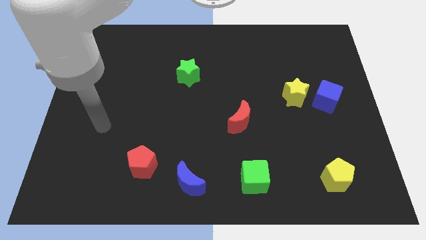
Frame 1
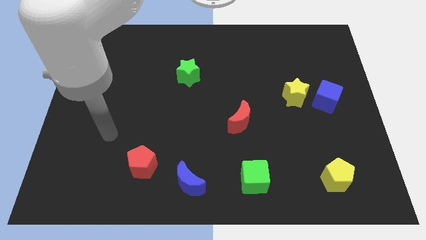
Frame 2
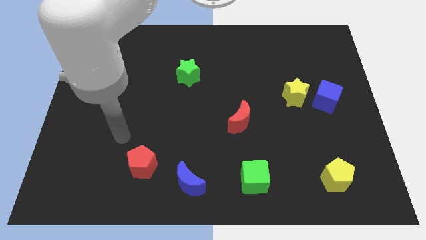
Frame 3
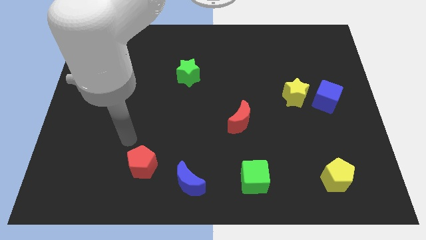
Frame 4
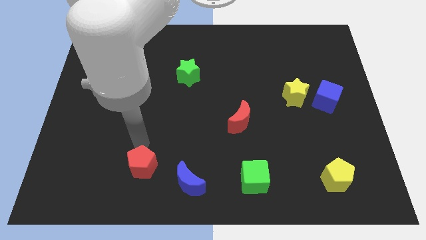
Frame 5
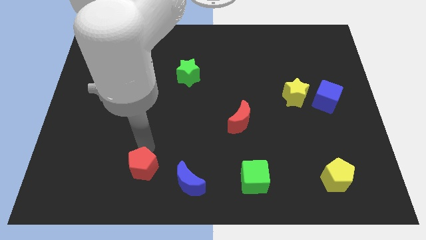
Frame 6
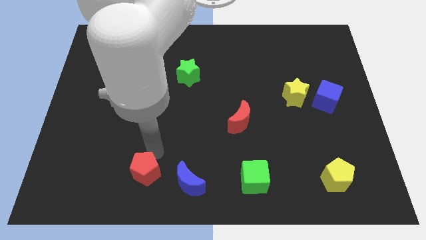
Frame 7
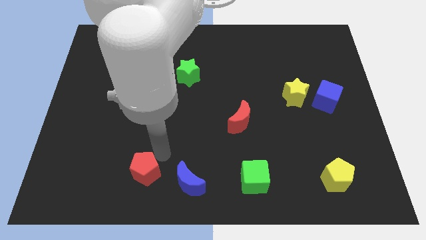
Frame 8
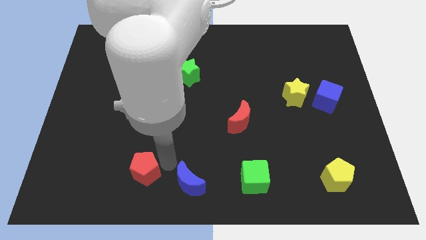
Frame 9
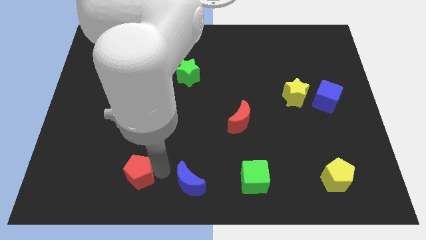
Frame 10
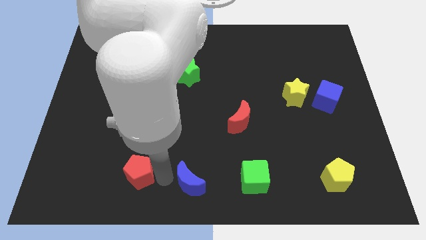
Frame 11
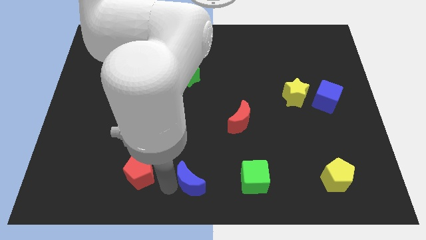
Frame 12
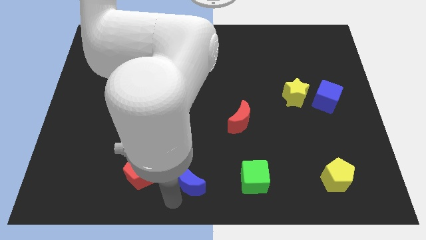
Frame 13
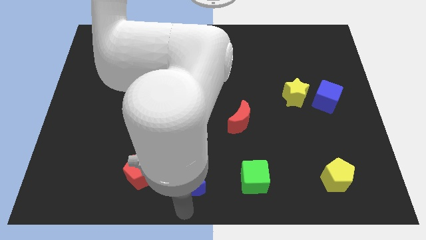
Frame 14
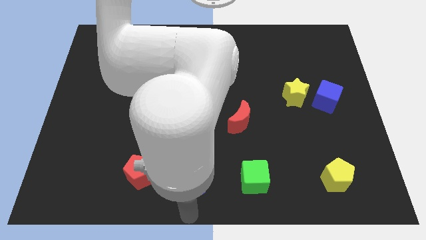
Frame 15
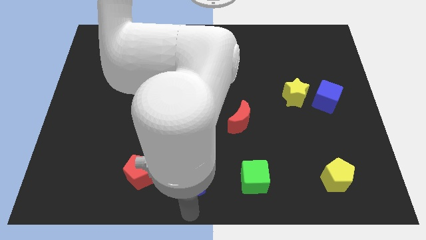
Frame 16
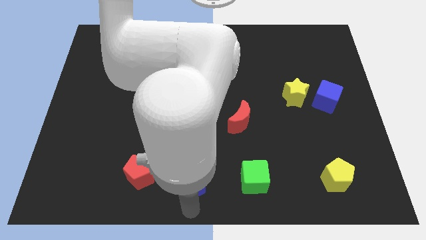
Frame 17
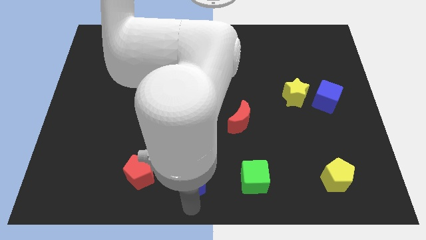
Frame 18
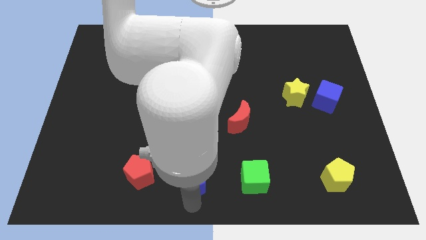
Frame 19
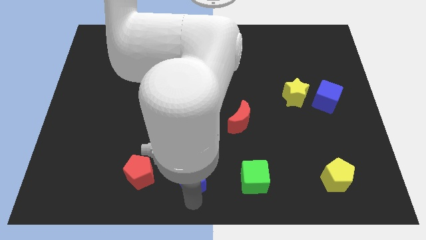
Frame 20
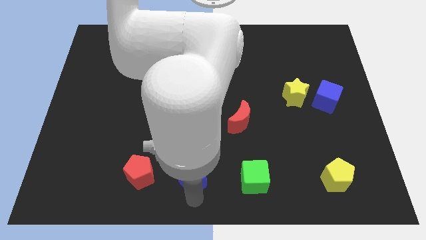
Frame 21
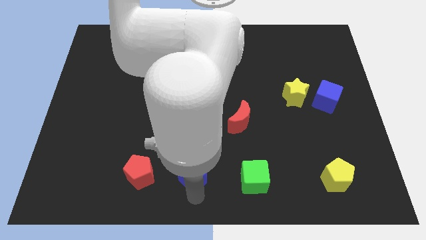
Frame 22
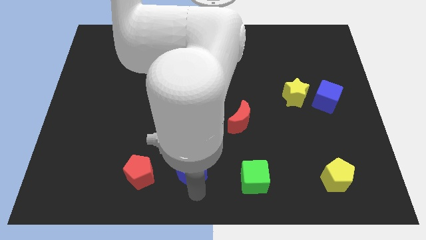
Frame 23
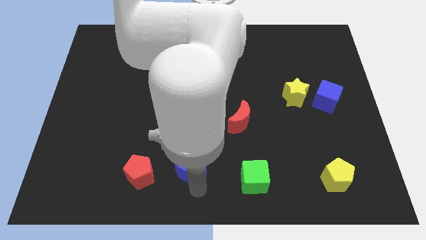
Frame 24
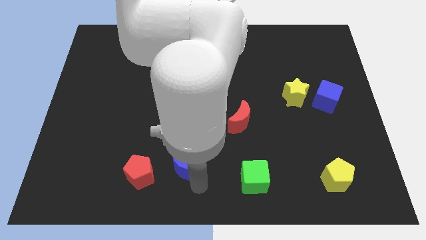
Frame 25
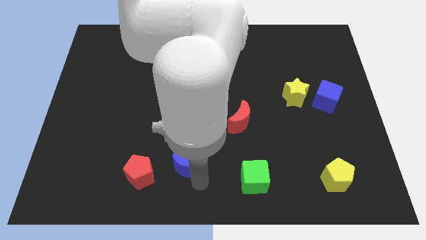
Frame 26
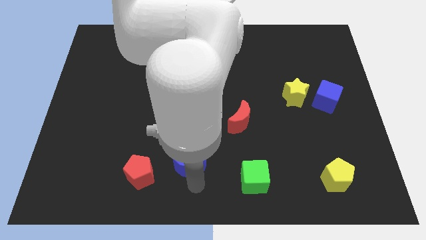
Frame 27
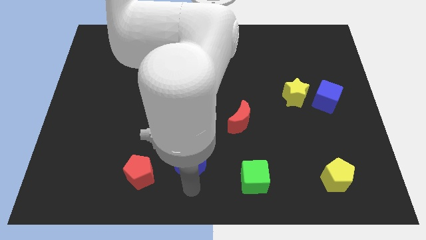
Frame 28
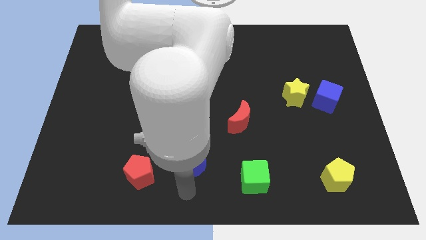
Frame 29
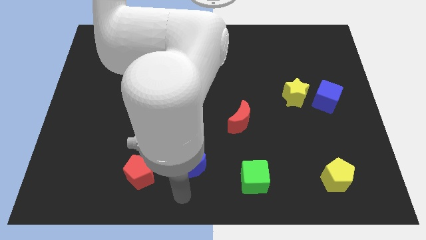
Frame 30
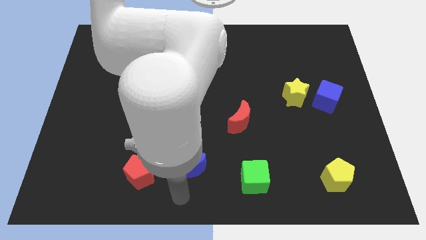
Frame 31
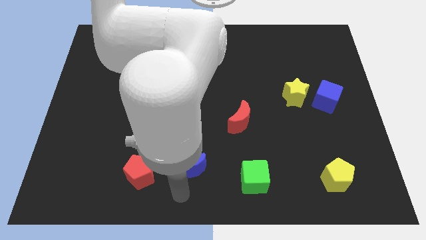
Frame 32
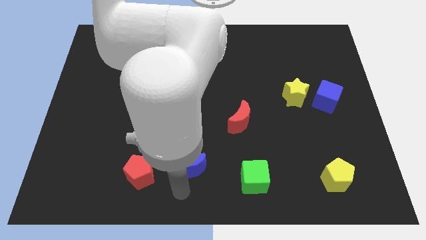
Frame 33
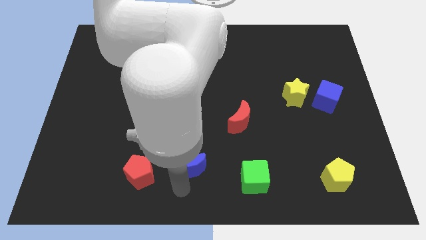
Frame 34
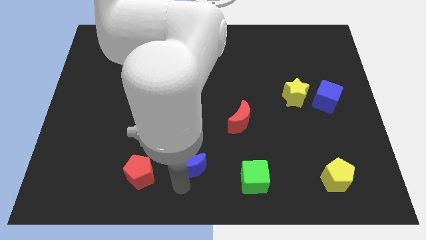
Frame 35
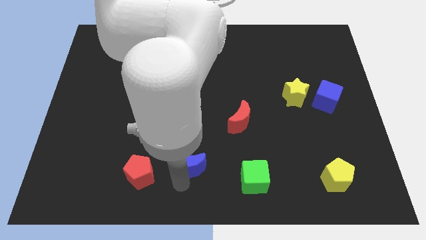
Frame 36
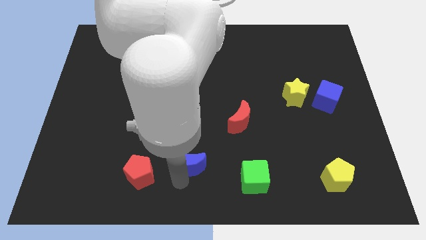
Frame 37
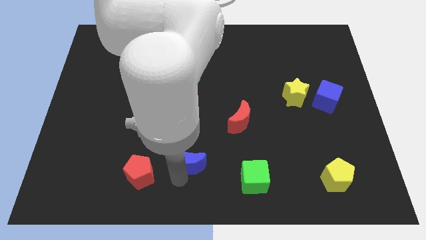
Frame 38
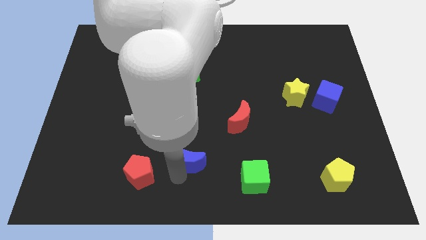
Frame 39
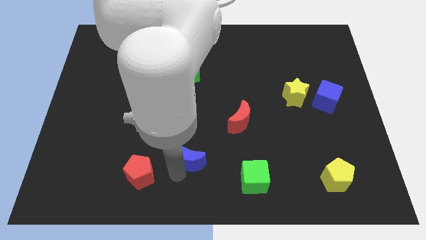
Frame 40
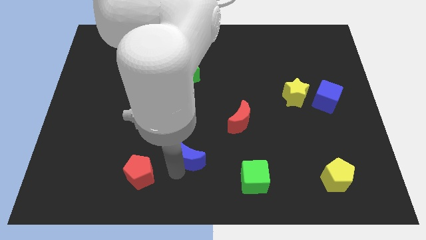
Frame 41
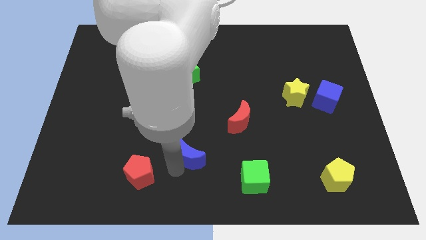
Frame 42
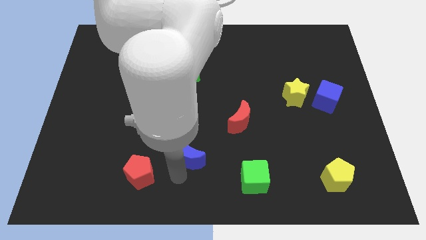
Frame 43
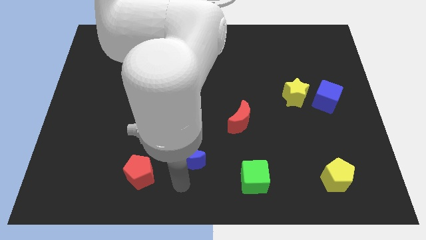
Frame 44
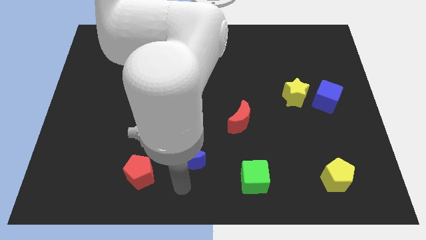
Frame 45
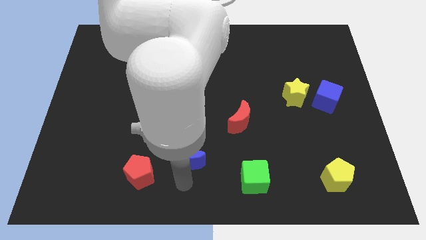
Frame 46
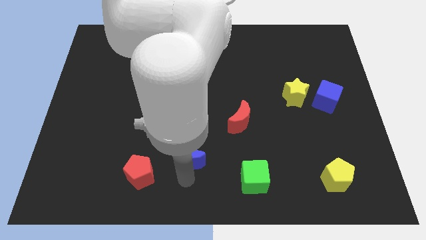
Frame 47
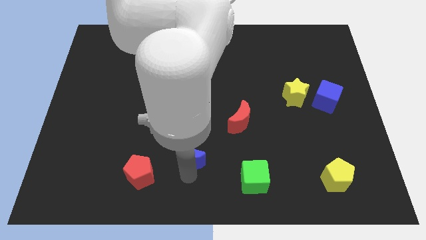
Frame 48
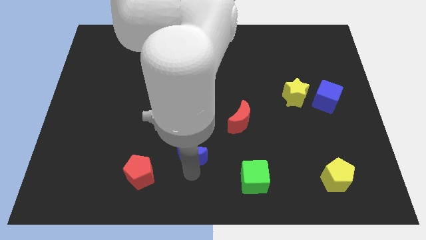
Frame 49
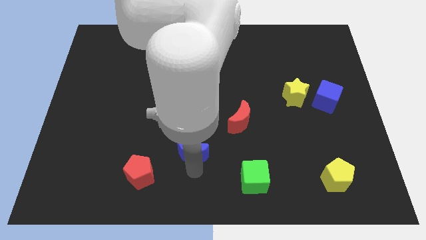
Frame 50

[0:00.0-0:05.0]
push the blue moon up slightly

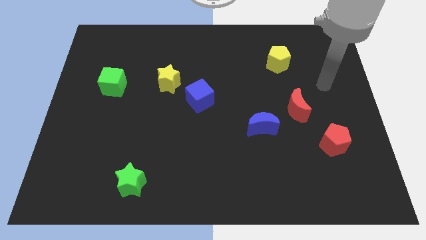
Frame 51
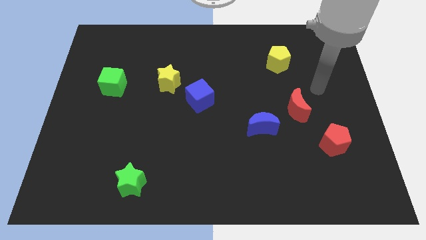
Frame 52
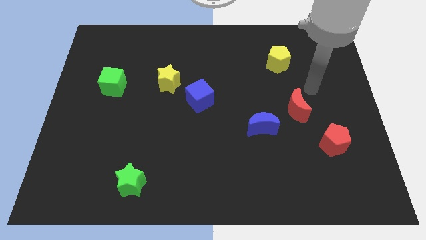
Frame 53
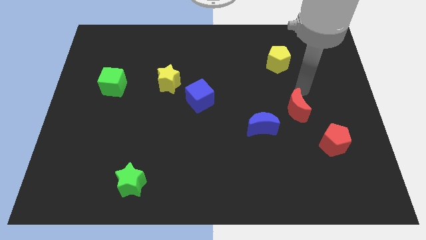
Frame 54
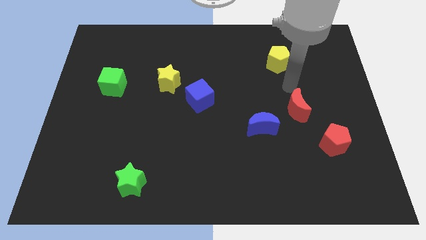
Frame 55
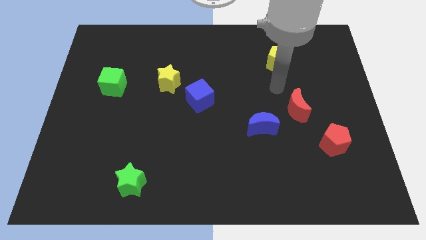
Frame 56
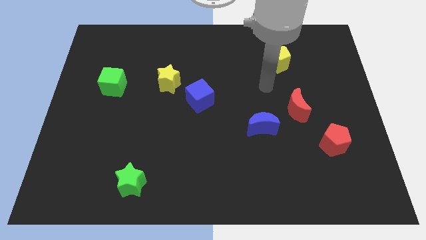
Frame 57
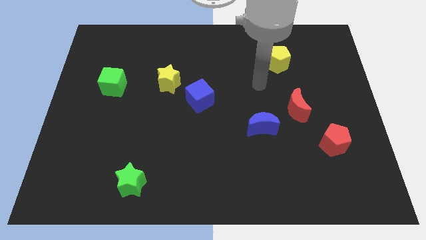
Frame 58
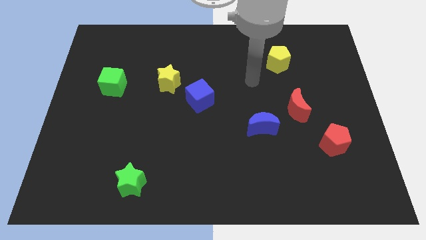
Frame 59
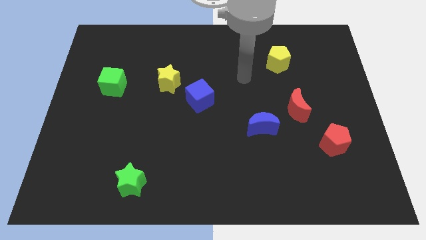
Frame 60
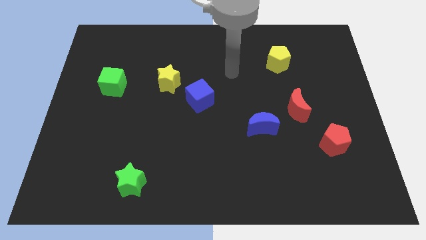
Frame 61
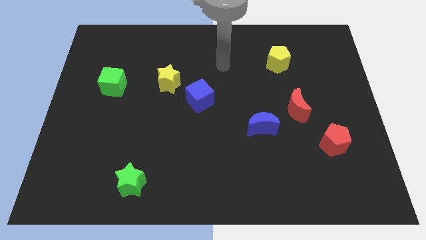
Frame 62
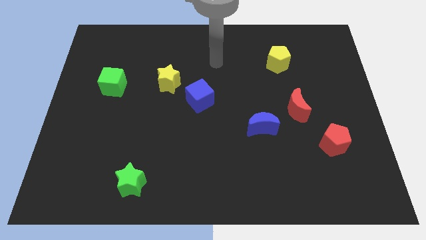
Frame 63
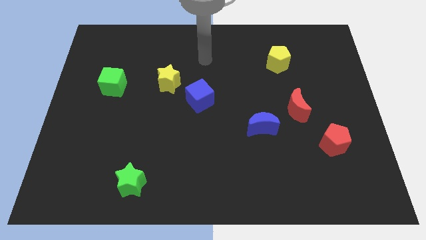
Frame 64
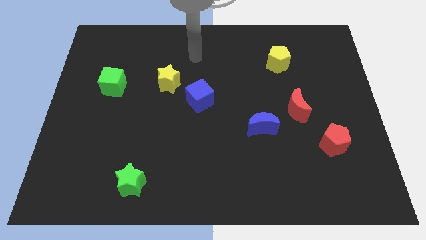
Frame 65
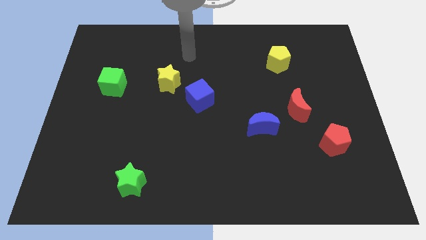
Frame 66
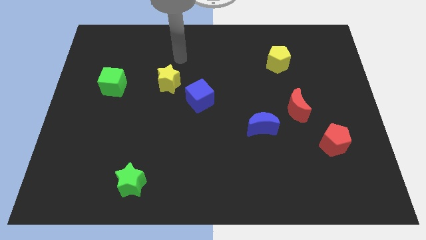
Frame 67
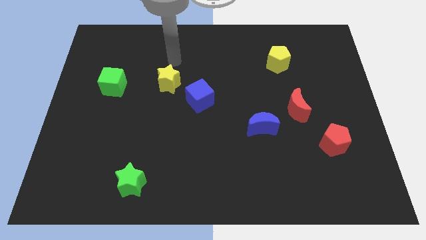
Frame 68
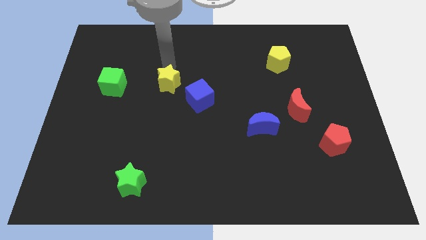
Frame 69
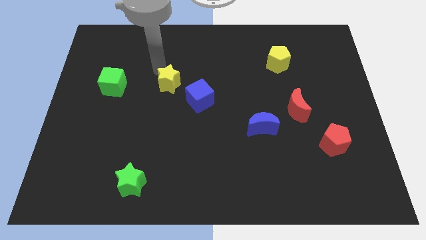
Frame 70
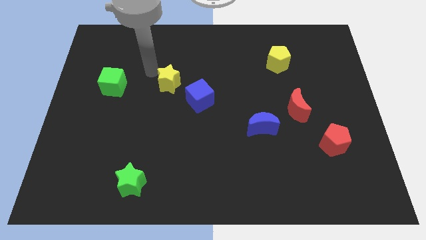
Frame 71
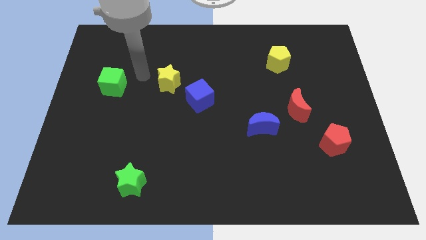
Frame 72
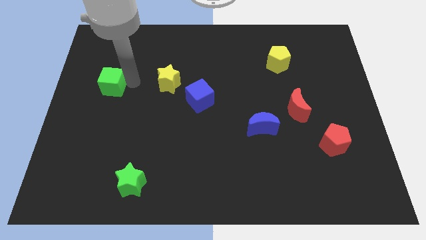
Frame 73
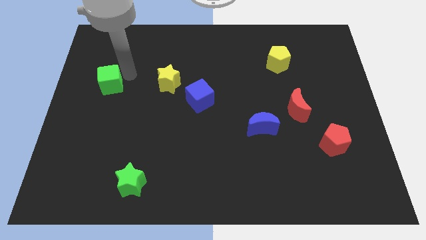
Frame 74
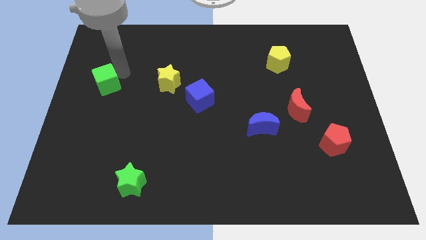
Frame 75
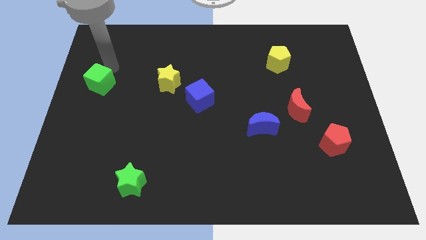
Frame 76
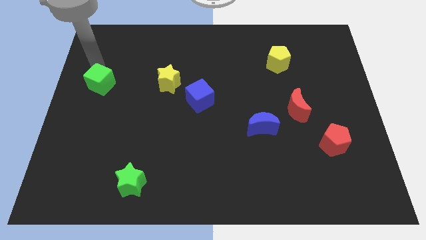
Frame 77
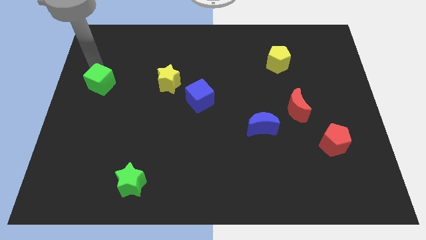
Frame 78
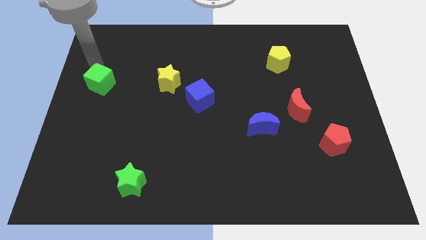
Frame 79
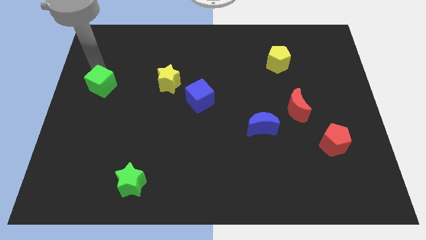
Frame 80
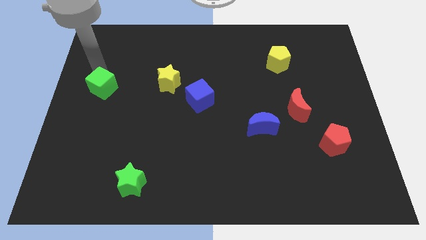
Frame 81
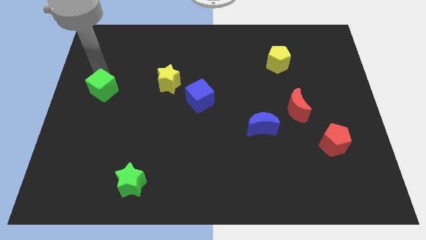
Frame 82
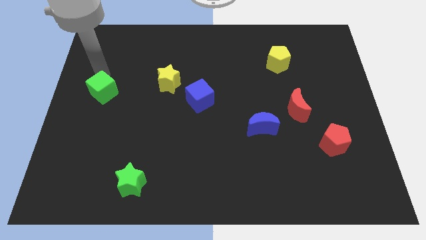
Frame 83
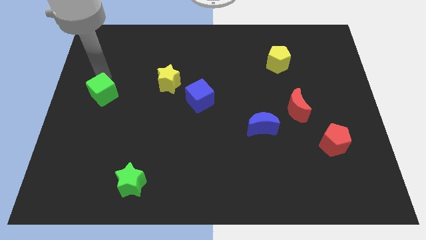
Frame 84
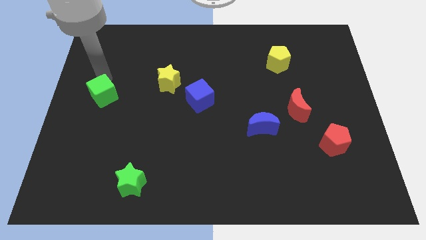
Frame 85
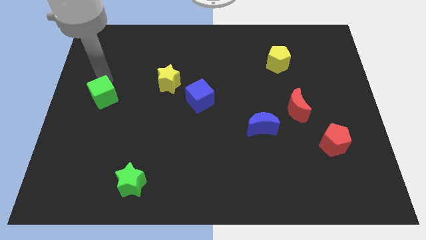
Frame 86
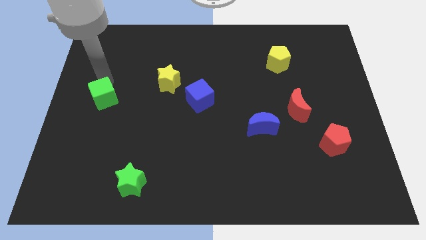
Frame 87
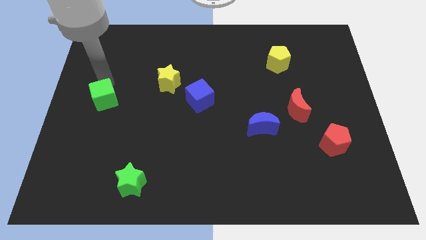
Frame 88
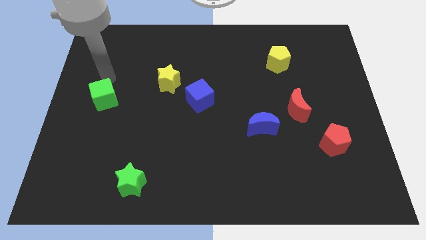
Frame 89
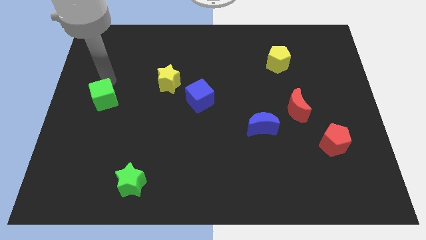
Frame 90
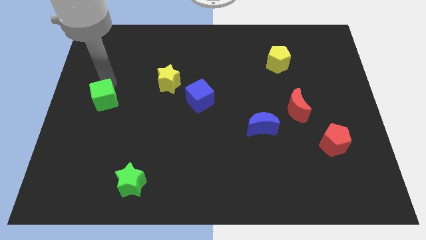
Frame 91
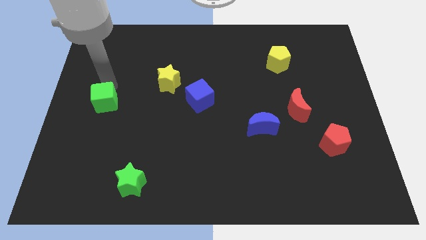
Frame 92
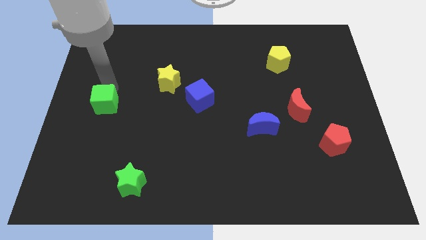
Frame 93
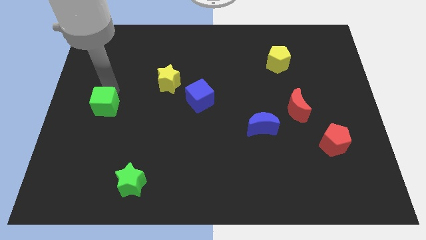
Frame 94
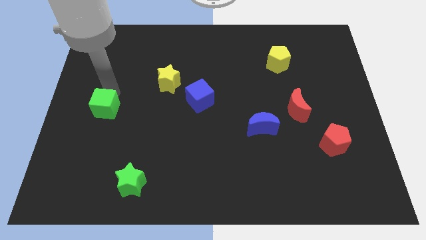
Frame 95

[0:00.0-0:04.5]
push the green cube somewhat downwards
